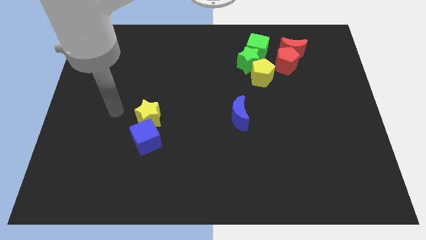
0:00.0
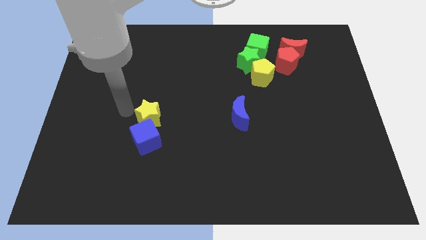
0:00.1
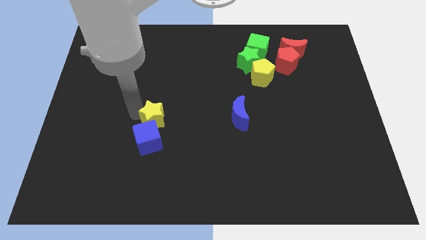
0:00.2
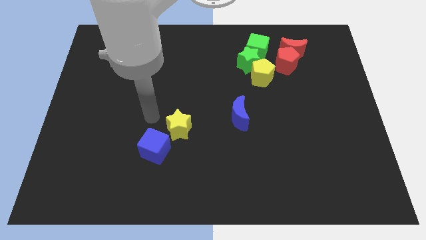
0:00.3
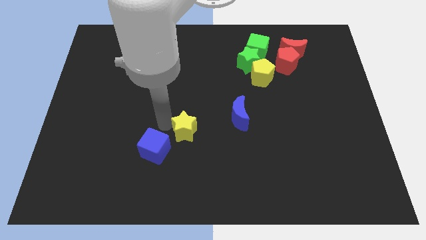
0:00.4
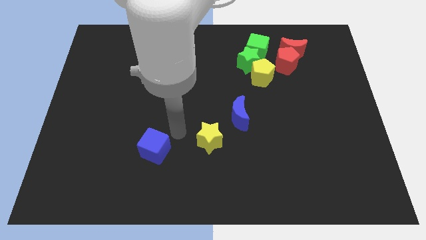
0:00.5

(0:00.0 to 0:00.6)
separate the blue cube from the yellow star

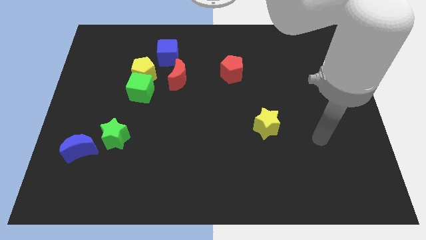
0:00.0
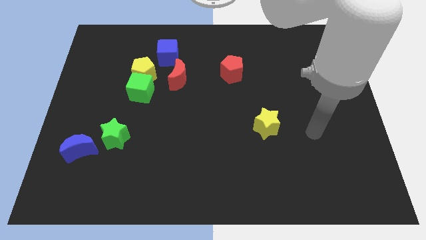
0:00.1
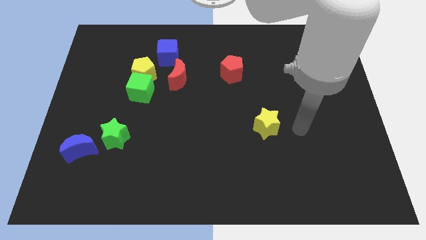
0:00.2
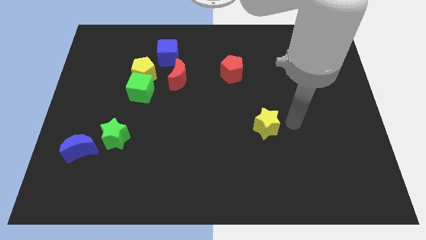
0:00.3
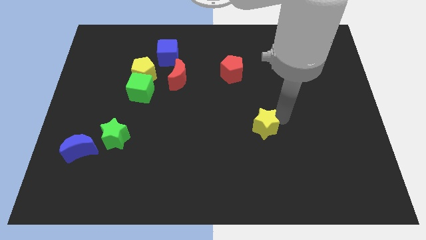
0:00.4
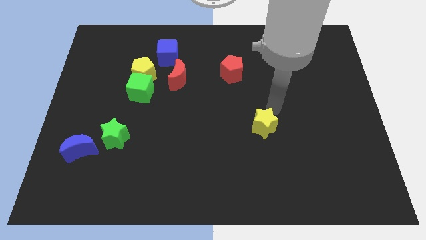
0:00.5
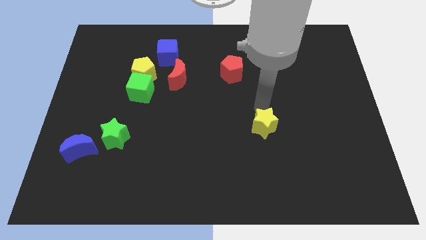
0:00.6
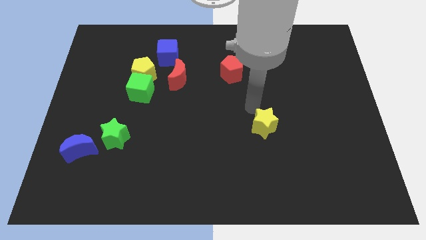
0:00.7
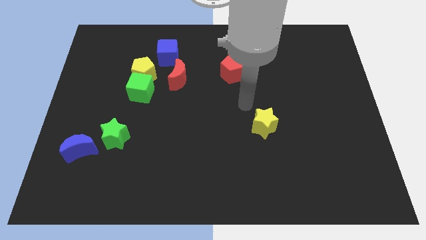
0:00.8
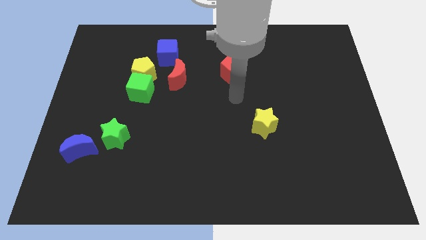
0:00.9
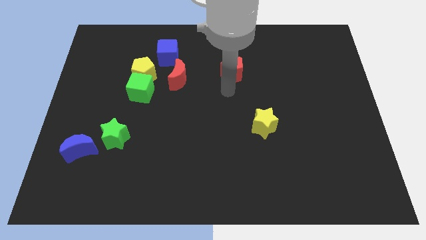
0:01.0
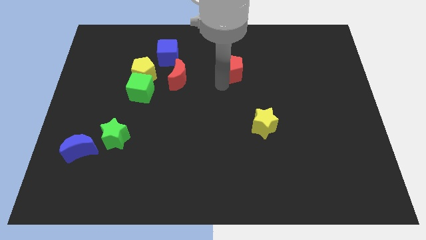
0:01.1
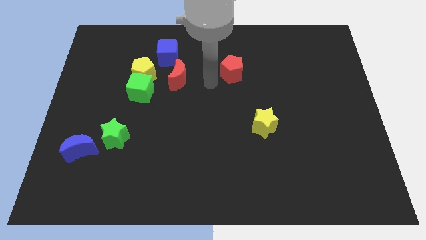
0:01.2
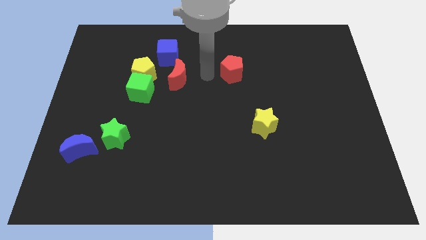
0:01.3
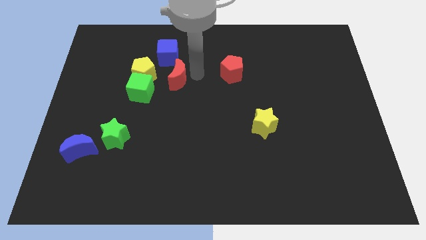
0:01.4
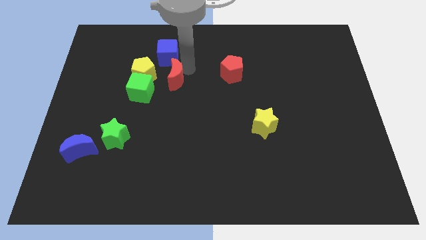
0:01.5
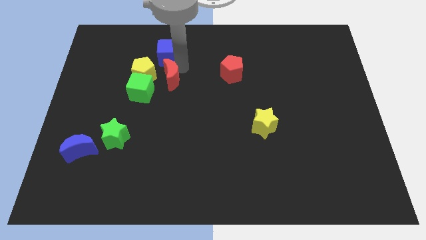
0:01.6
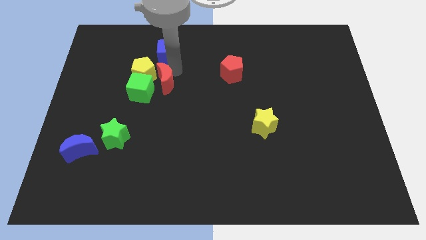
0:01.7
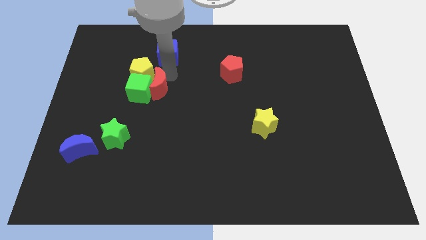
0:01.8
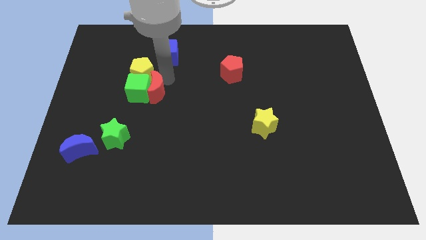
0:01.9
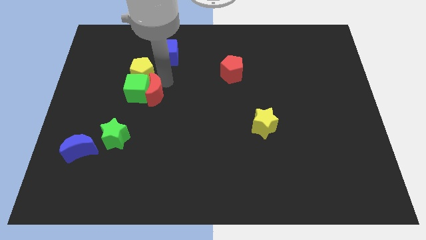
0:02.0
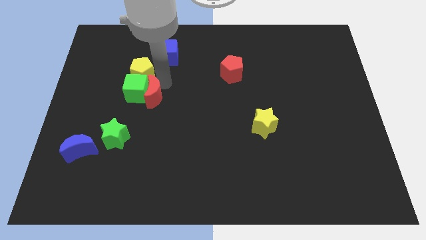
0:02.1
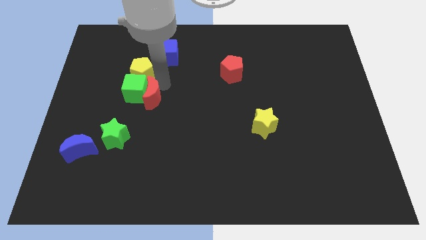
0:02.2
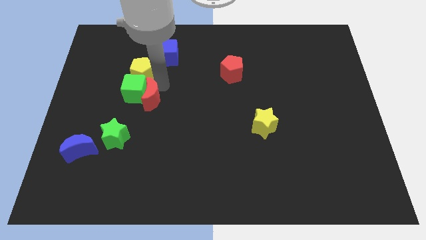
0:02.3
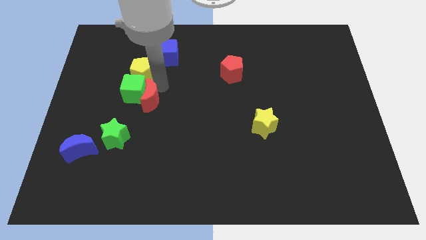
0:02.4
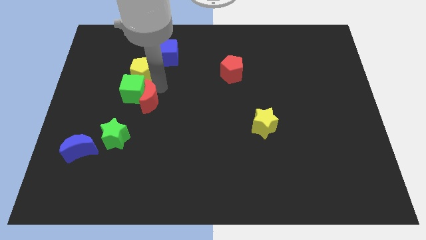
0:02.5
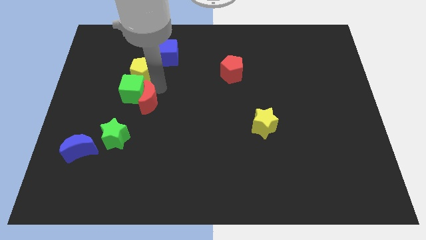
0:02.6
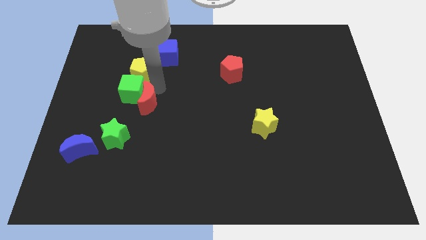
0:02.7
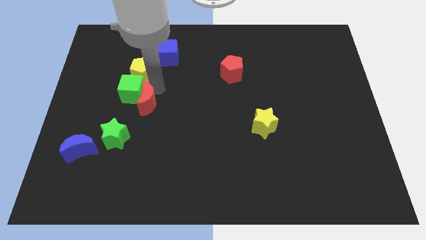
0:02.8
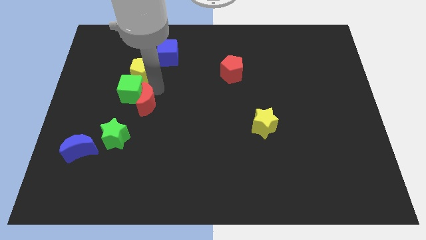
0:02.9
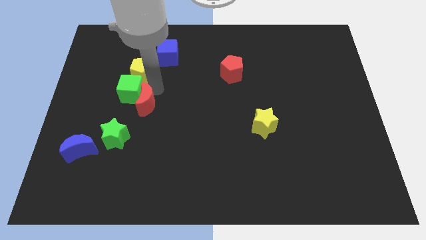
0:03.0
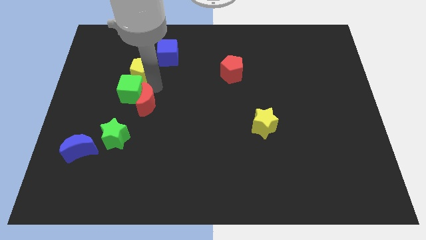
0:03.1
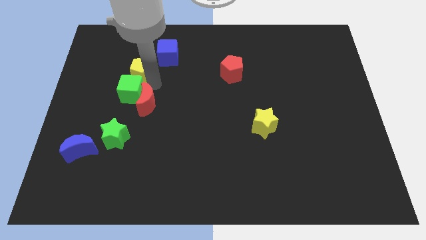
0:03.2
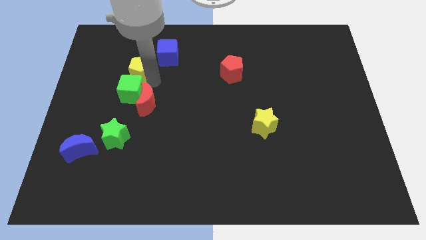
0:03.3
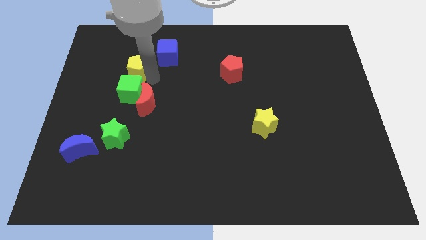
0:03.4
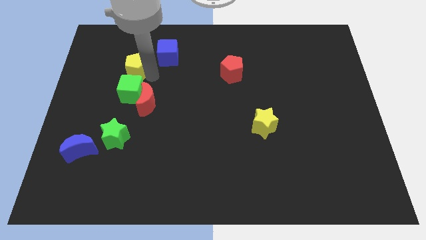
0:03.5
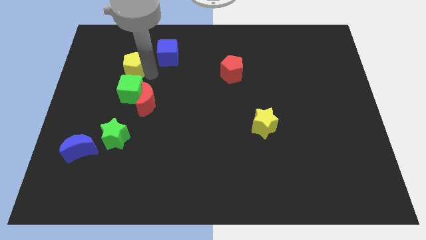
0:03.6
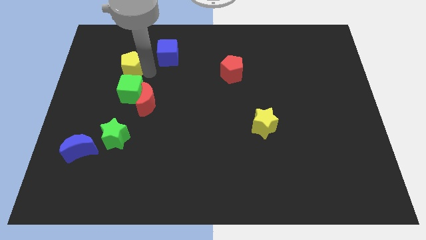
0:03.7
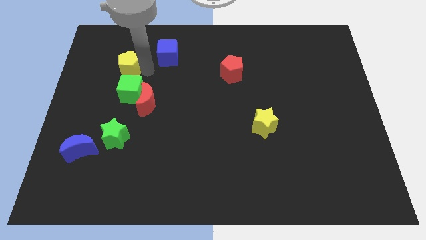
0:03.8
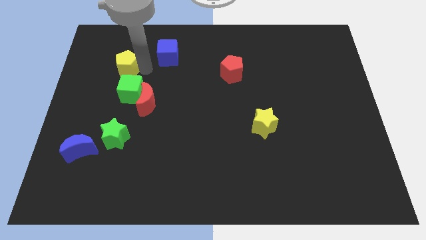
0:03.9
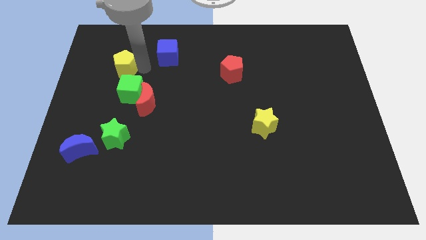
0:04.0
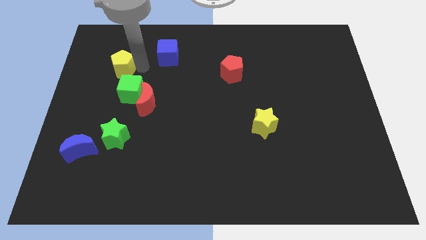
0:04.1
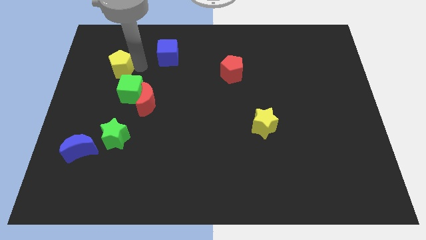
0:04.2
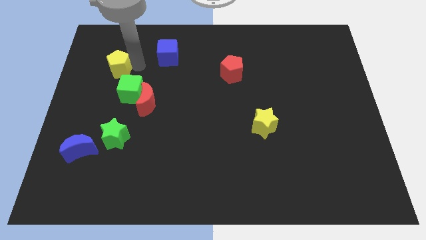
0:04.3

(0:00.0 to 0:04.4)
pull the yellow pentagon apart from the green cube, blue cube, and red moon

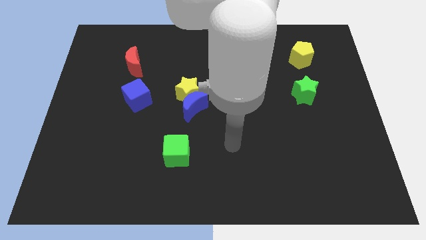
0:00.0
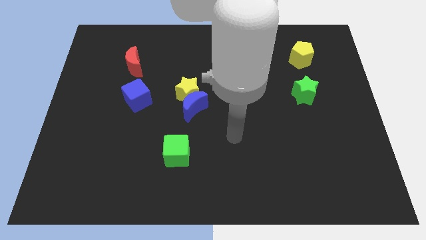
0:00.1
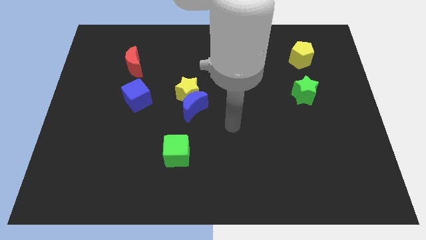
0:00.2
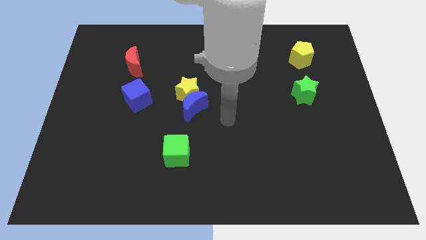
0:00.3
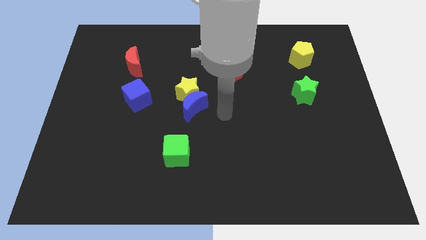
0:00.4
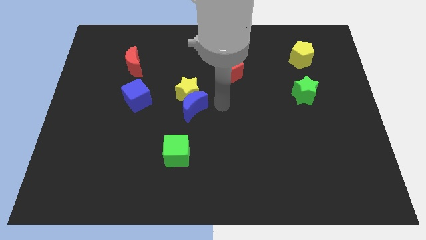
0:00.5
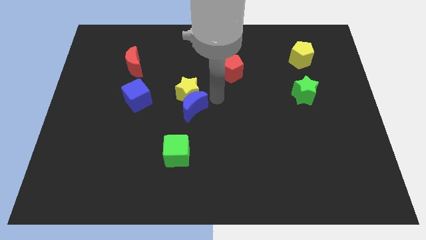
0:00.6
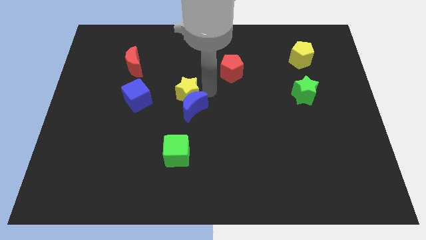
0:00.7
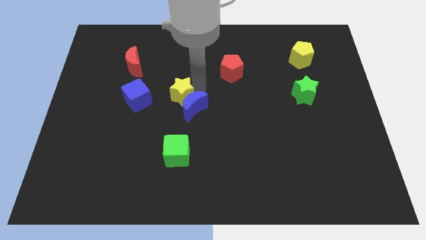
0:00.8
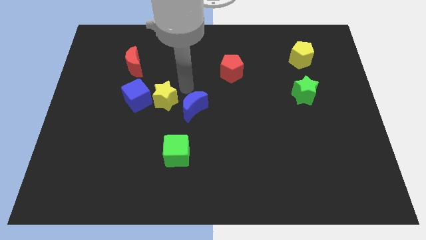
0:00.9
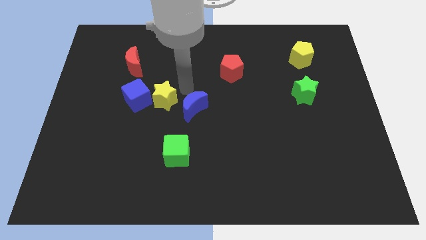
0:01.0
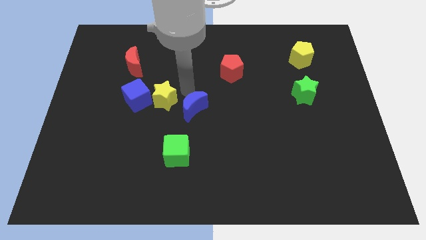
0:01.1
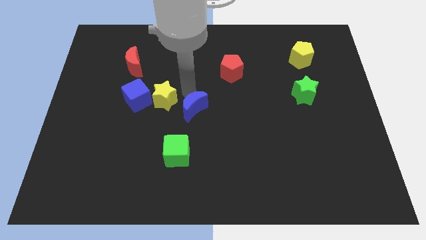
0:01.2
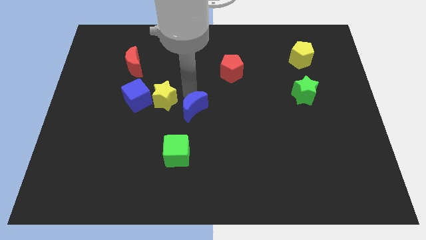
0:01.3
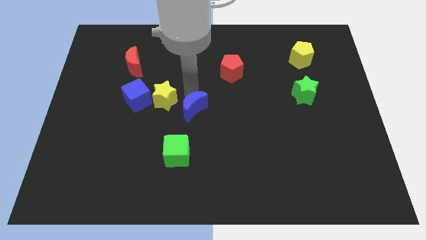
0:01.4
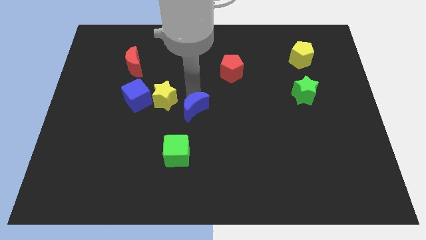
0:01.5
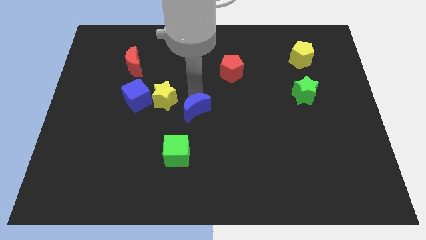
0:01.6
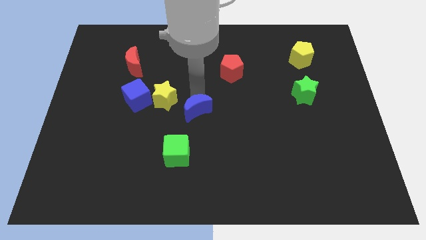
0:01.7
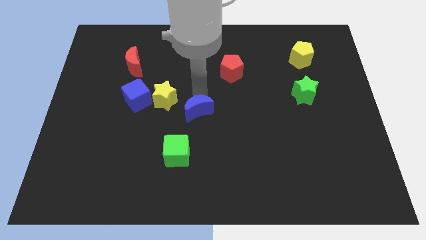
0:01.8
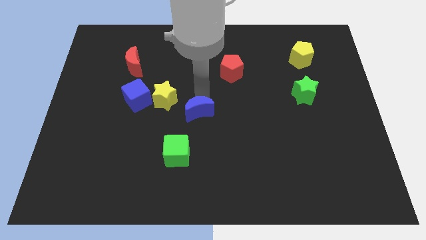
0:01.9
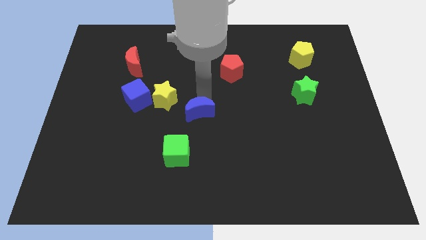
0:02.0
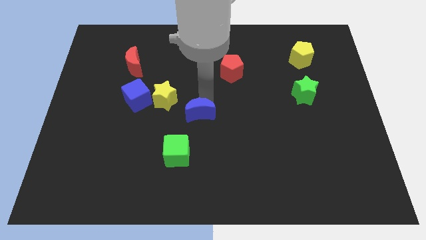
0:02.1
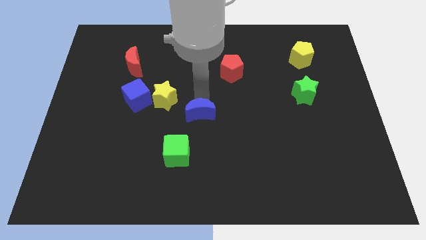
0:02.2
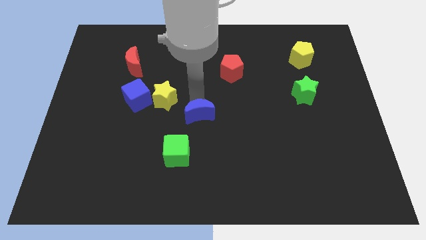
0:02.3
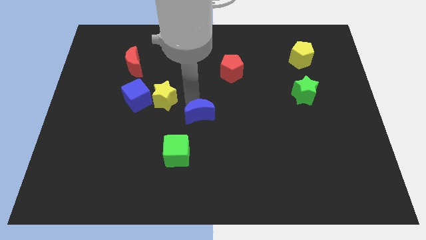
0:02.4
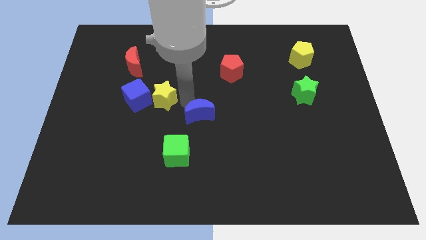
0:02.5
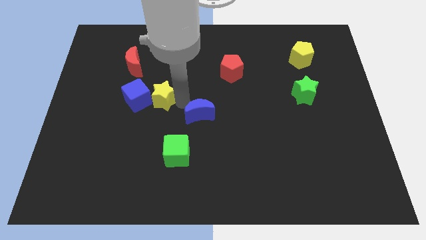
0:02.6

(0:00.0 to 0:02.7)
separate the blue moon from the yellow star

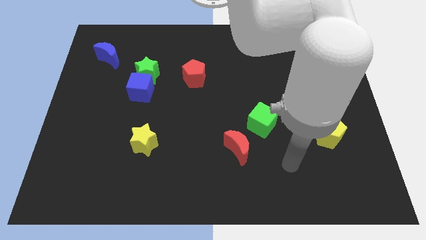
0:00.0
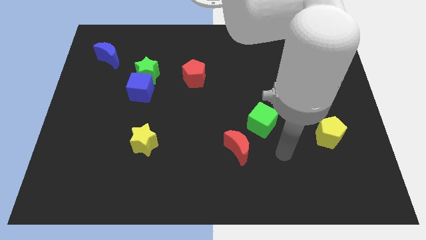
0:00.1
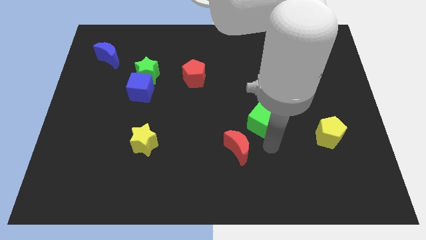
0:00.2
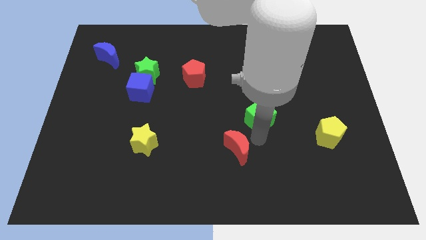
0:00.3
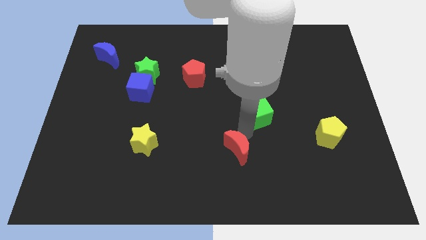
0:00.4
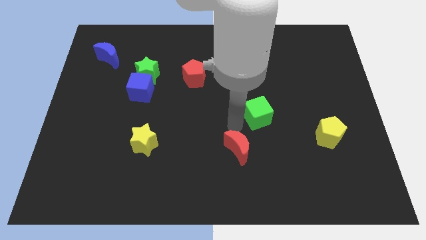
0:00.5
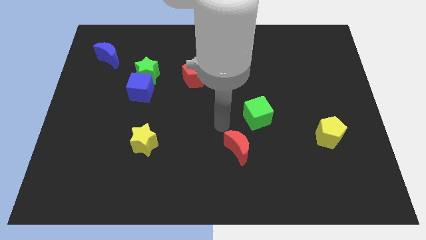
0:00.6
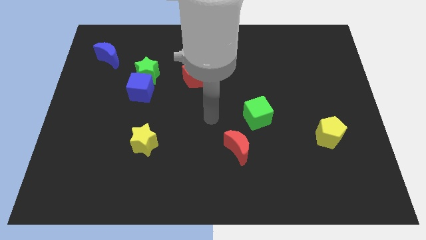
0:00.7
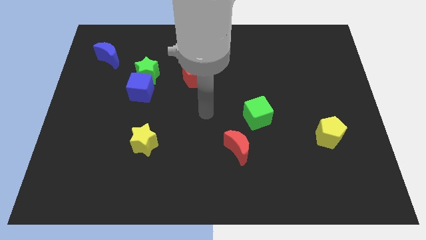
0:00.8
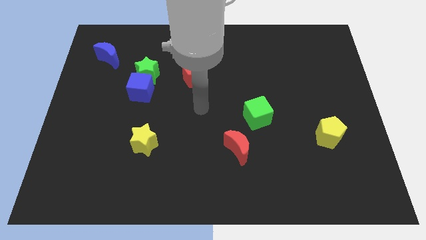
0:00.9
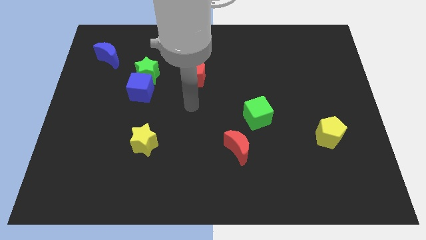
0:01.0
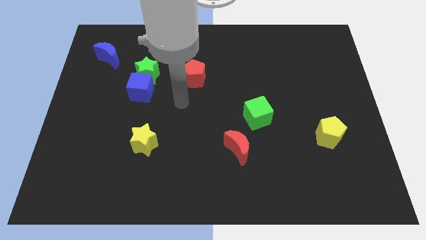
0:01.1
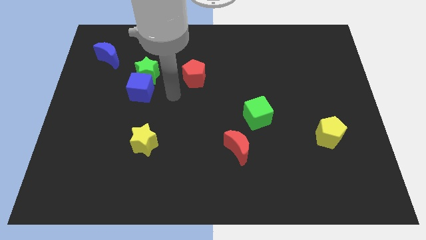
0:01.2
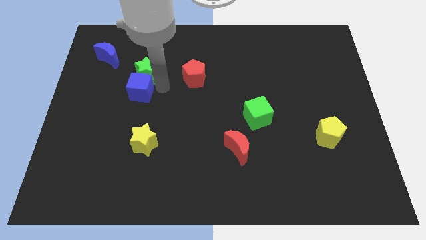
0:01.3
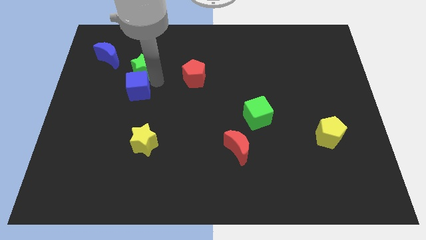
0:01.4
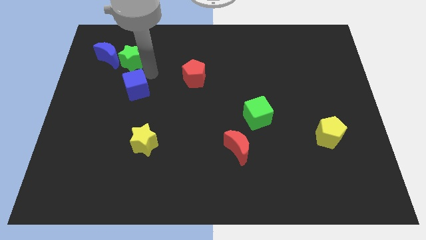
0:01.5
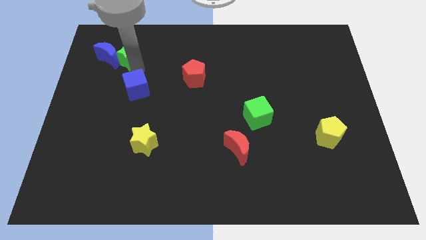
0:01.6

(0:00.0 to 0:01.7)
move the blue cube away from the green star

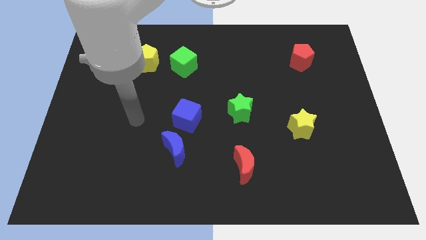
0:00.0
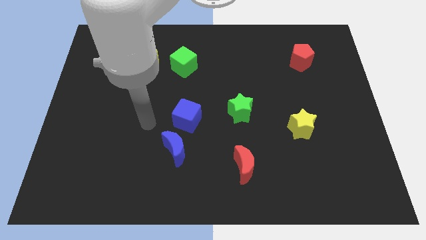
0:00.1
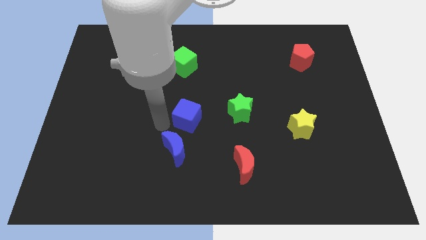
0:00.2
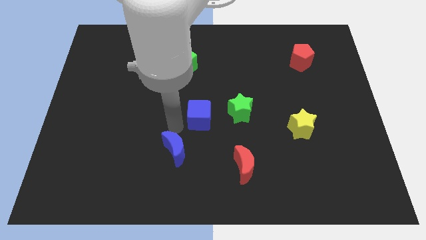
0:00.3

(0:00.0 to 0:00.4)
move the blue moon away from the blue cube
